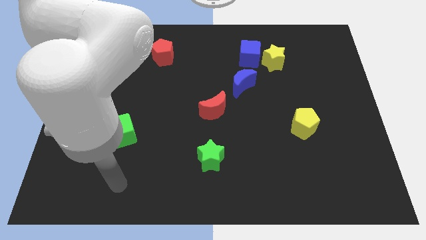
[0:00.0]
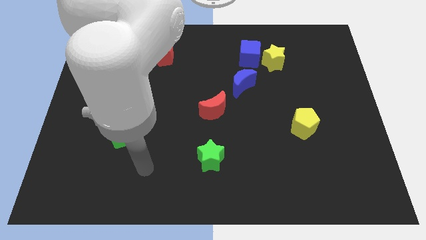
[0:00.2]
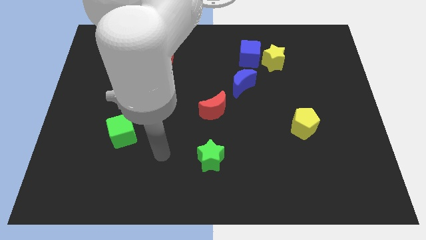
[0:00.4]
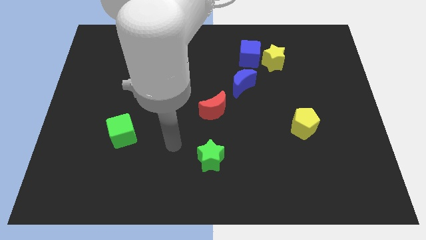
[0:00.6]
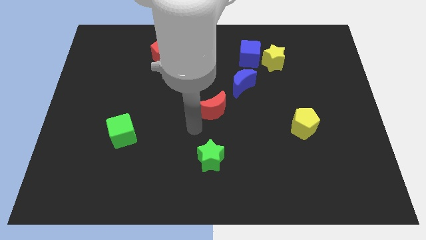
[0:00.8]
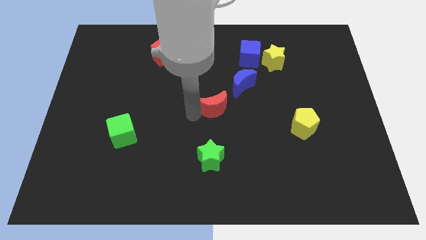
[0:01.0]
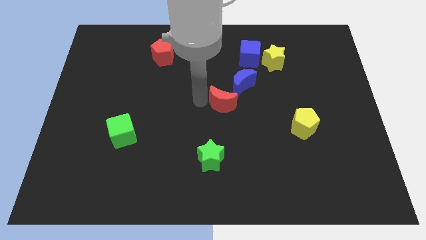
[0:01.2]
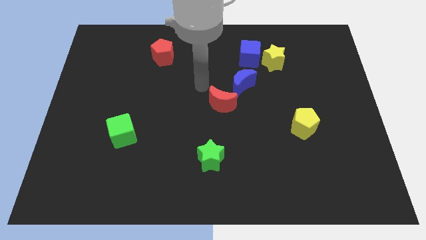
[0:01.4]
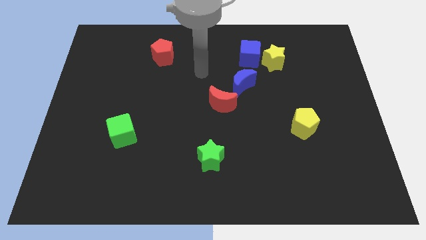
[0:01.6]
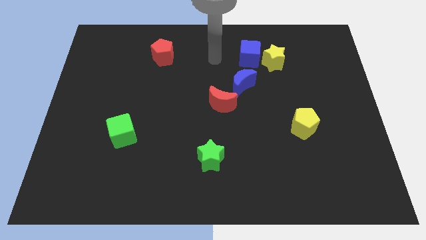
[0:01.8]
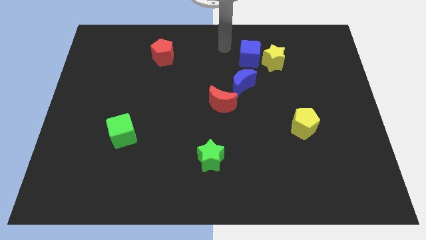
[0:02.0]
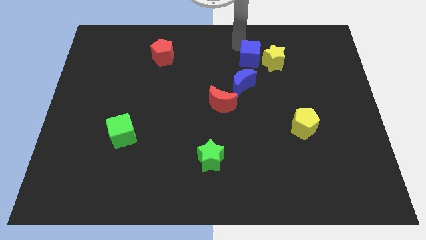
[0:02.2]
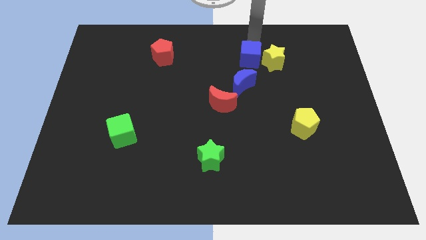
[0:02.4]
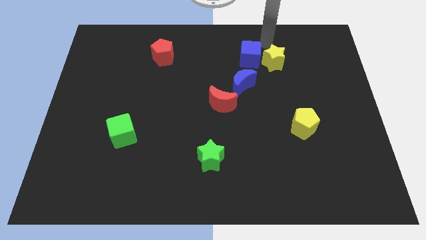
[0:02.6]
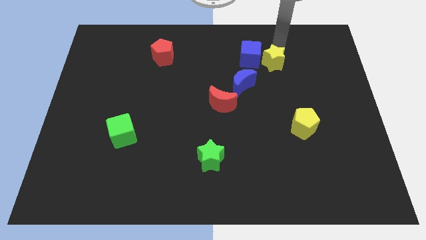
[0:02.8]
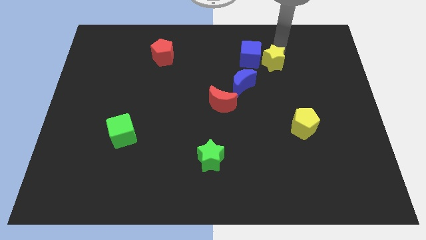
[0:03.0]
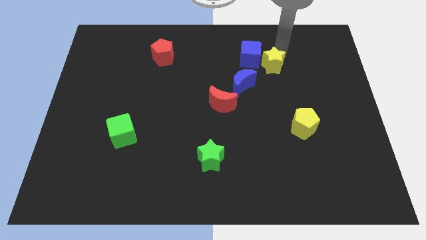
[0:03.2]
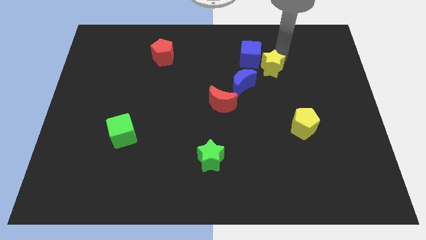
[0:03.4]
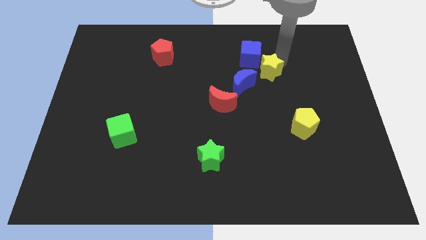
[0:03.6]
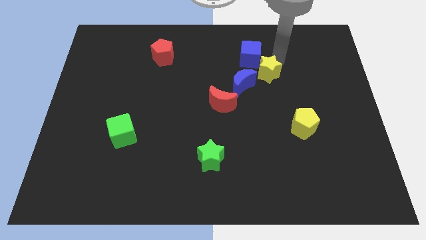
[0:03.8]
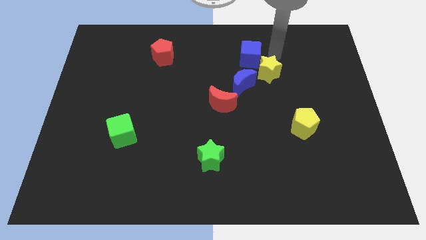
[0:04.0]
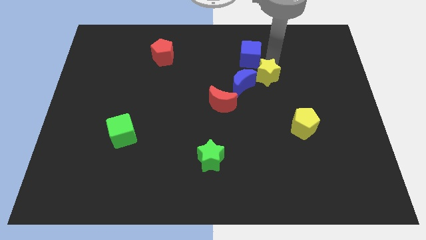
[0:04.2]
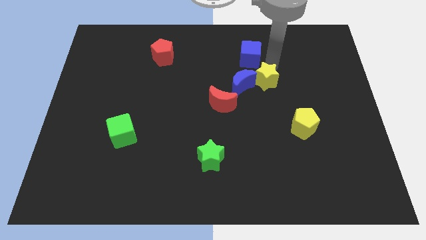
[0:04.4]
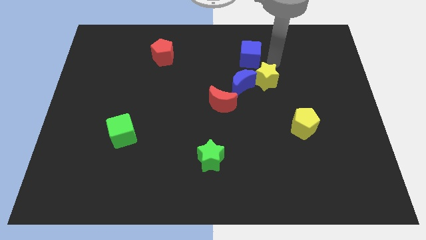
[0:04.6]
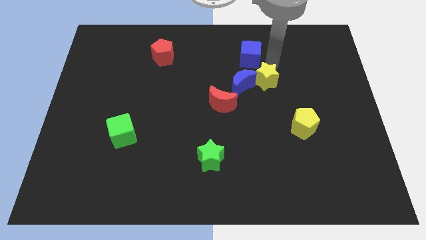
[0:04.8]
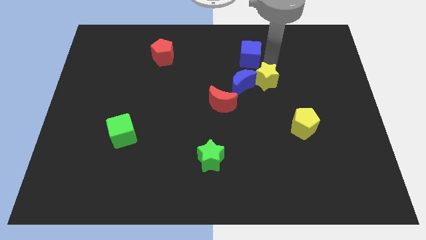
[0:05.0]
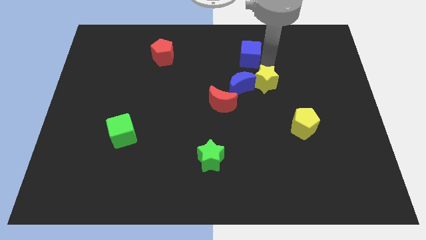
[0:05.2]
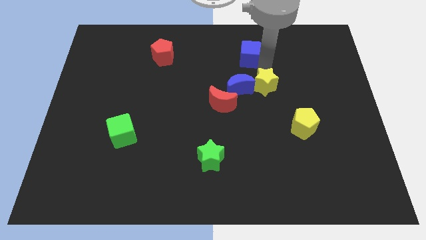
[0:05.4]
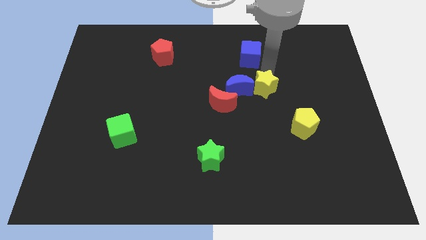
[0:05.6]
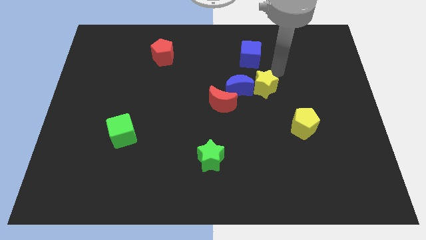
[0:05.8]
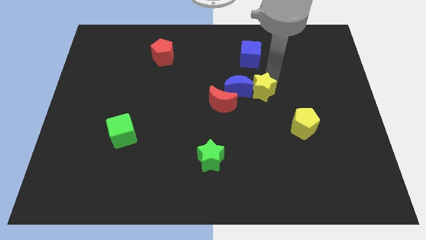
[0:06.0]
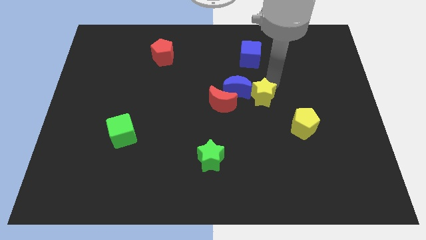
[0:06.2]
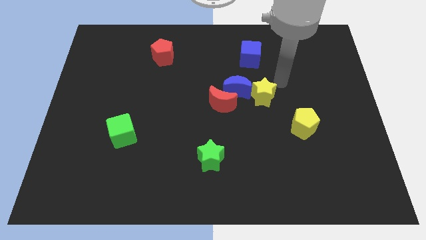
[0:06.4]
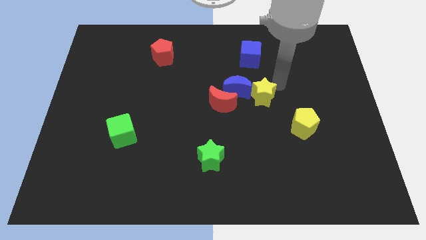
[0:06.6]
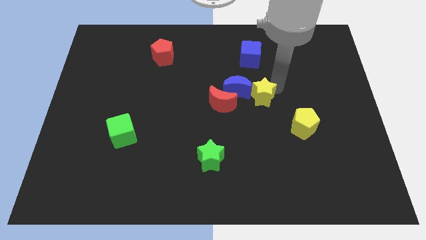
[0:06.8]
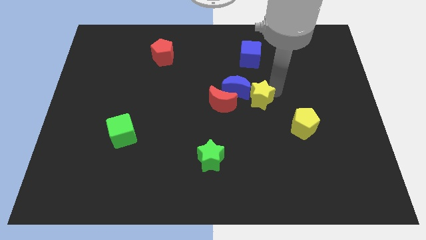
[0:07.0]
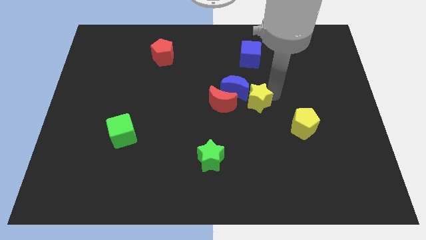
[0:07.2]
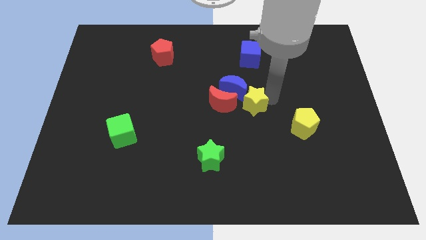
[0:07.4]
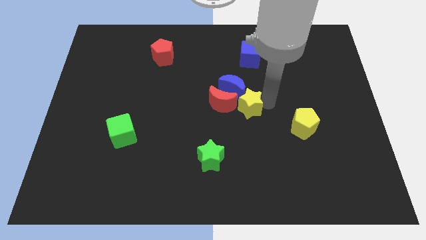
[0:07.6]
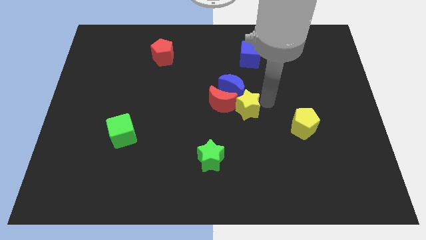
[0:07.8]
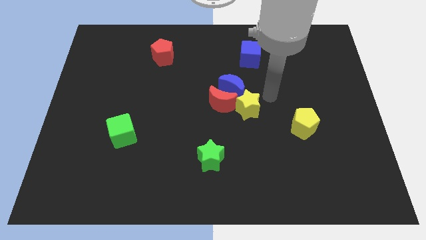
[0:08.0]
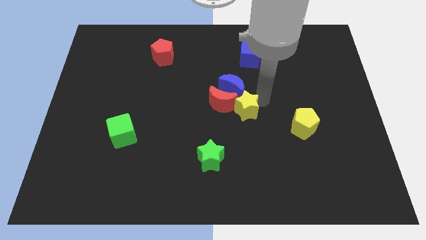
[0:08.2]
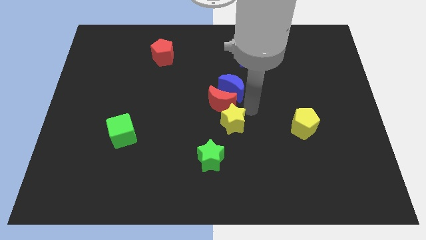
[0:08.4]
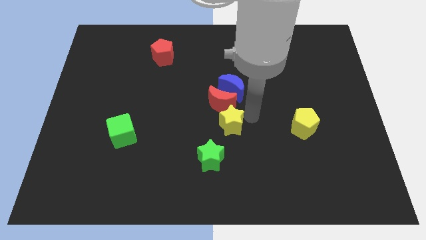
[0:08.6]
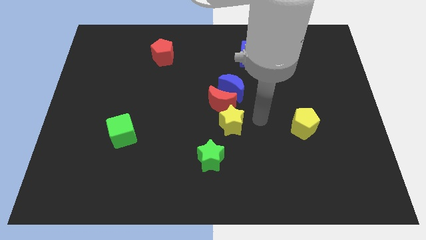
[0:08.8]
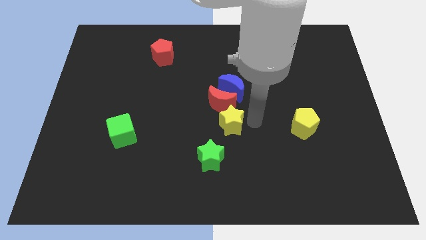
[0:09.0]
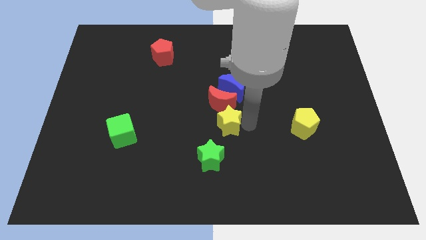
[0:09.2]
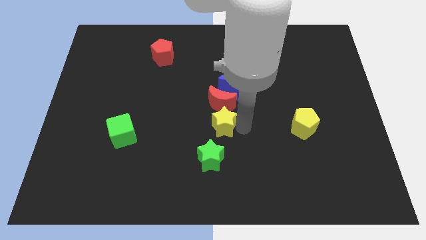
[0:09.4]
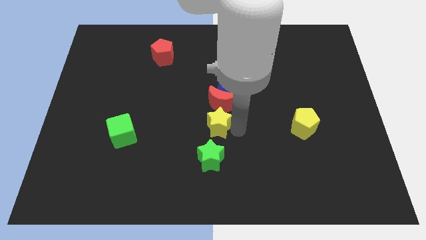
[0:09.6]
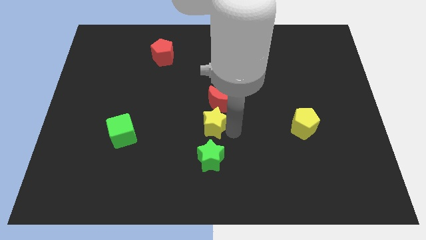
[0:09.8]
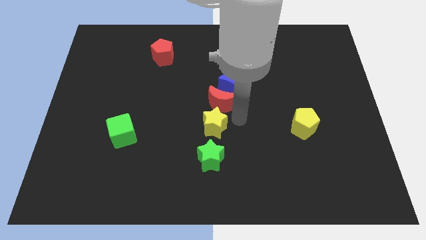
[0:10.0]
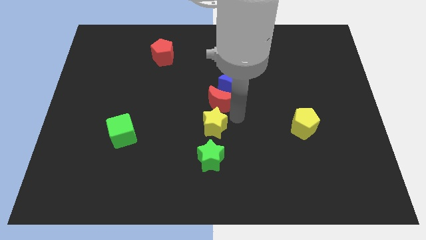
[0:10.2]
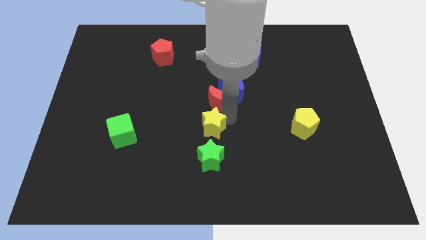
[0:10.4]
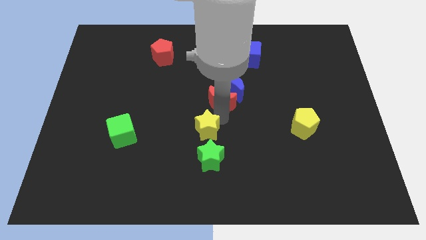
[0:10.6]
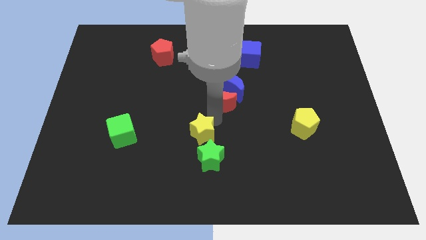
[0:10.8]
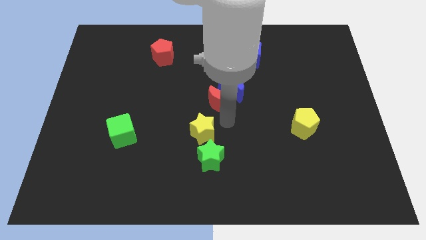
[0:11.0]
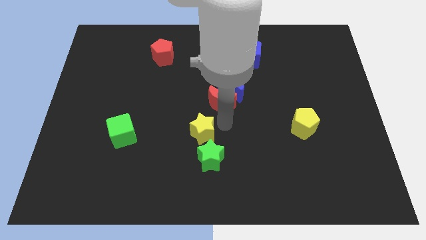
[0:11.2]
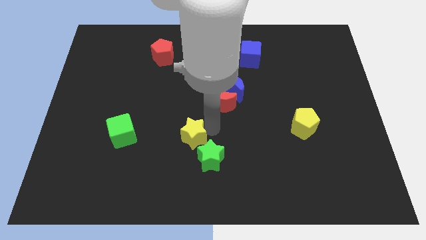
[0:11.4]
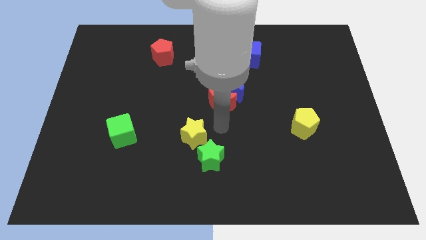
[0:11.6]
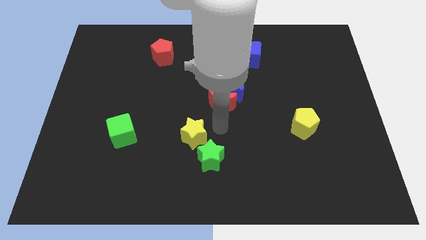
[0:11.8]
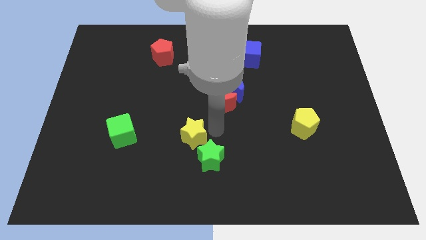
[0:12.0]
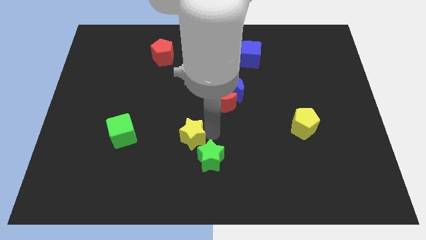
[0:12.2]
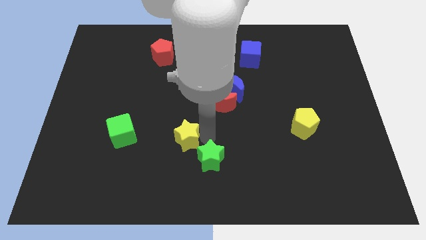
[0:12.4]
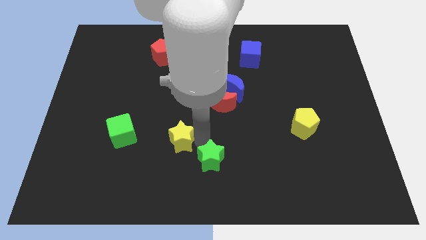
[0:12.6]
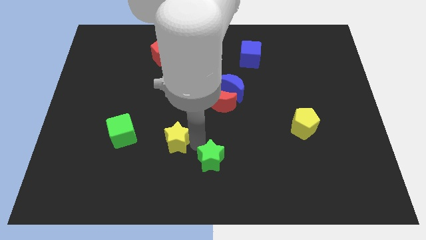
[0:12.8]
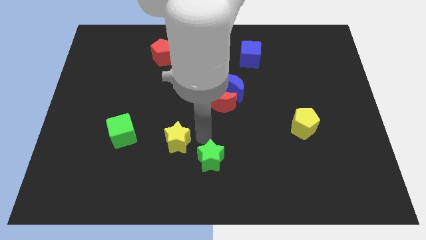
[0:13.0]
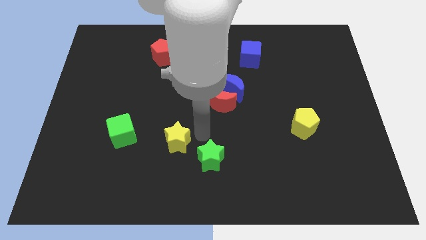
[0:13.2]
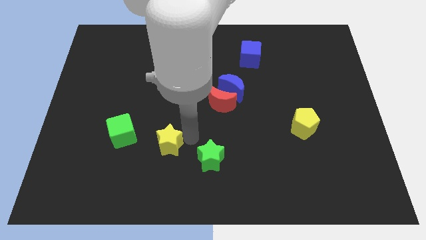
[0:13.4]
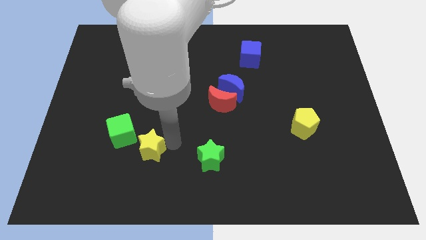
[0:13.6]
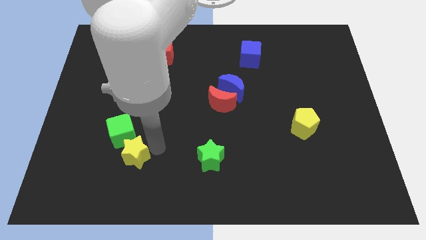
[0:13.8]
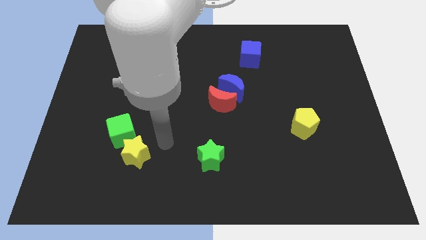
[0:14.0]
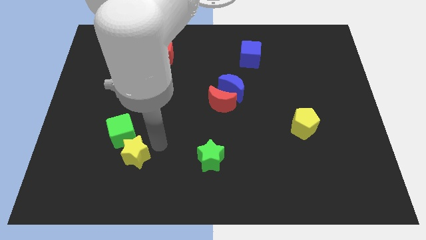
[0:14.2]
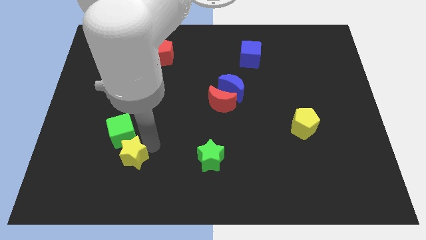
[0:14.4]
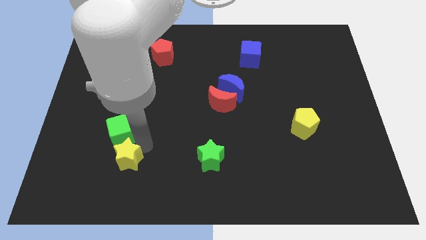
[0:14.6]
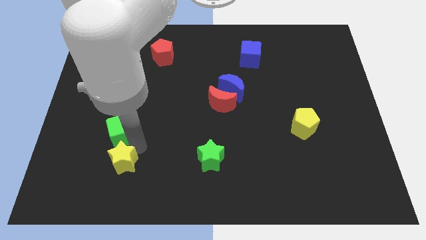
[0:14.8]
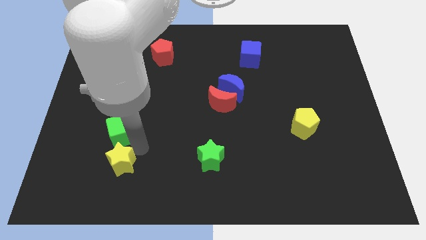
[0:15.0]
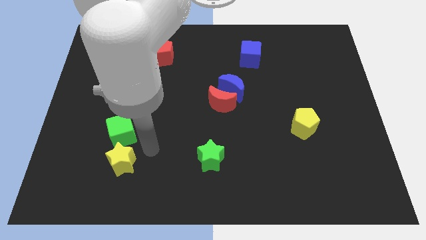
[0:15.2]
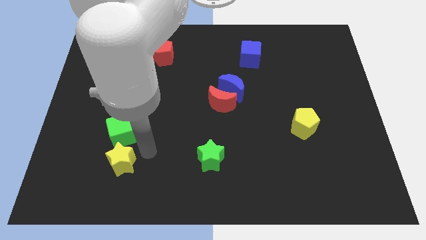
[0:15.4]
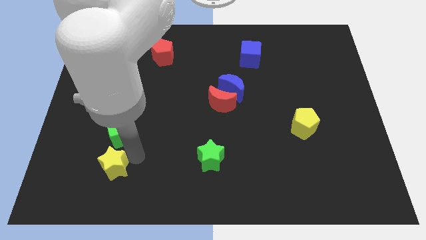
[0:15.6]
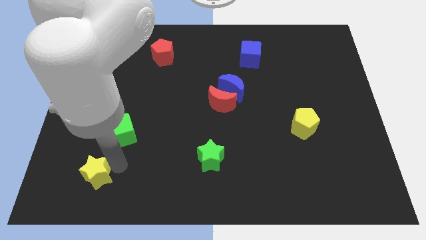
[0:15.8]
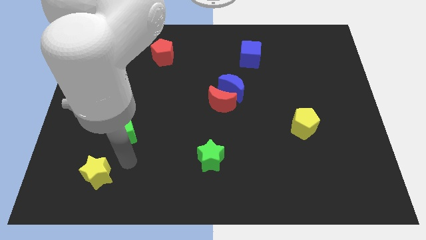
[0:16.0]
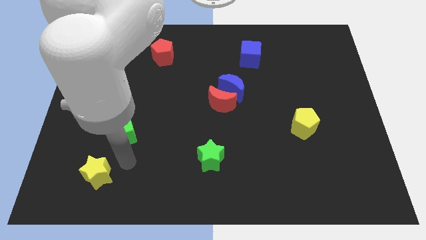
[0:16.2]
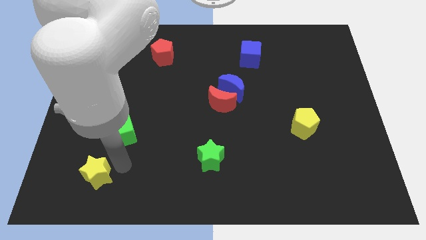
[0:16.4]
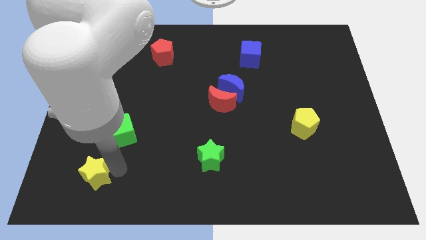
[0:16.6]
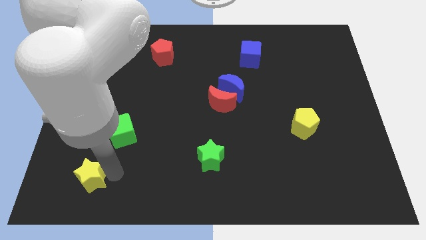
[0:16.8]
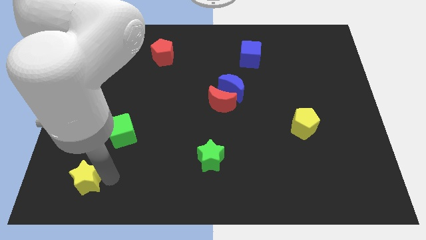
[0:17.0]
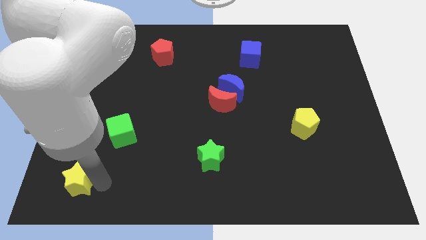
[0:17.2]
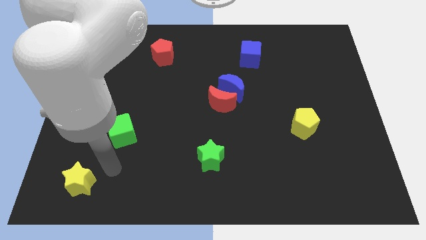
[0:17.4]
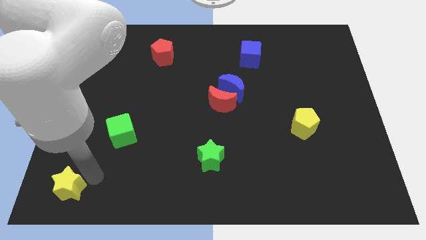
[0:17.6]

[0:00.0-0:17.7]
push the yellow star to the bottom left of the board
